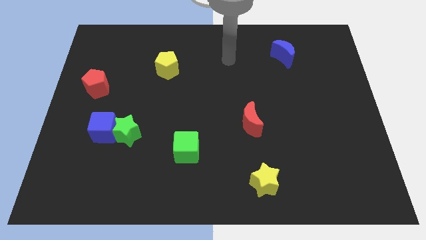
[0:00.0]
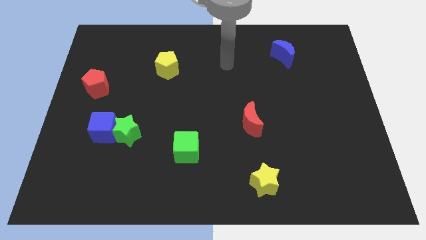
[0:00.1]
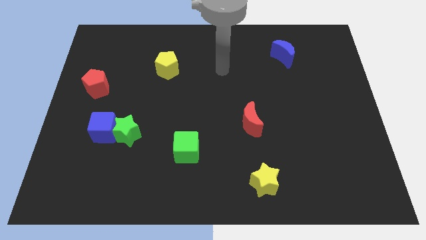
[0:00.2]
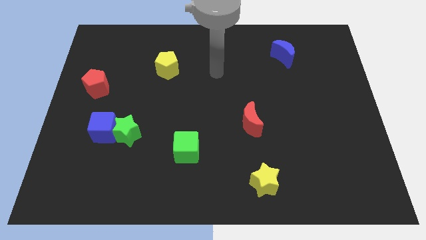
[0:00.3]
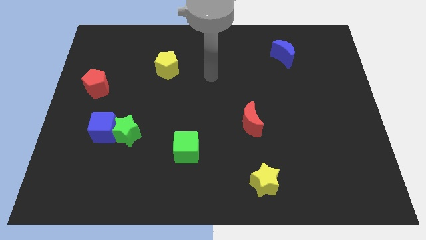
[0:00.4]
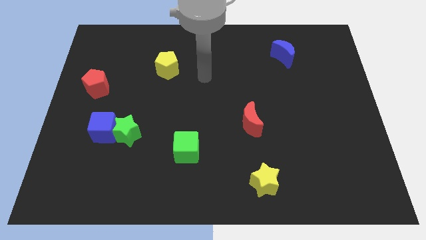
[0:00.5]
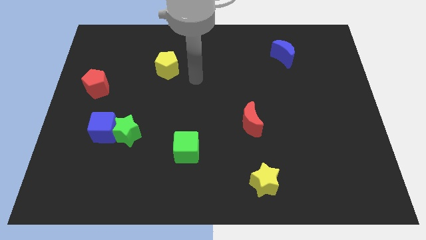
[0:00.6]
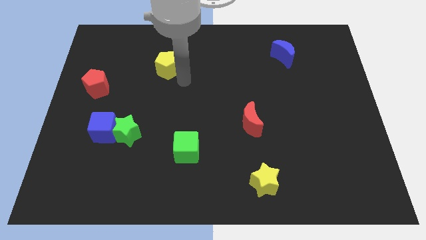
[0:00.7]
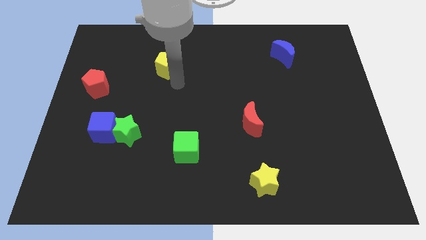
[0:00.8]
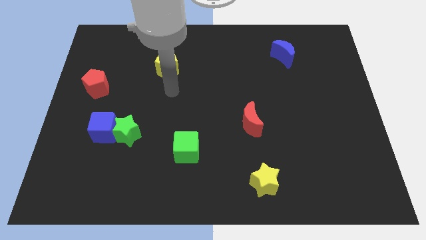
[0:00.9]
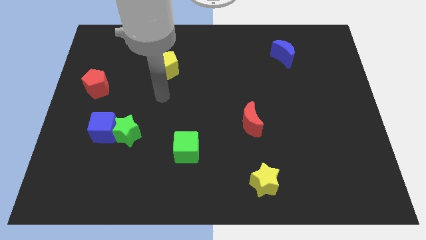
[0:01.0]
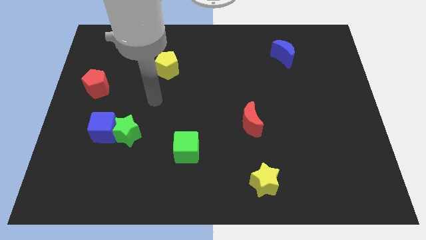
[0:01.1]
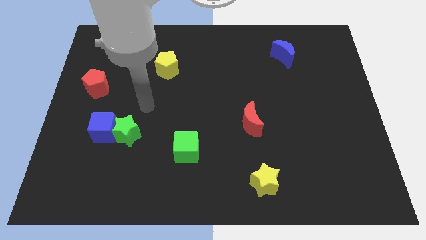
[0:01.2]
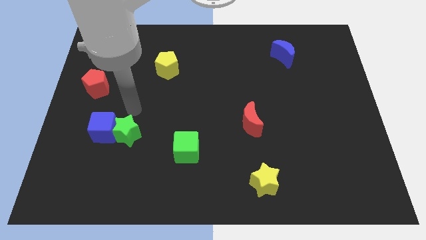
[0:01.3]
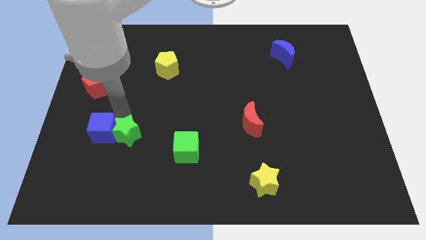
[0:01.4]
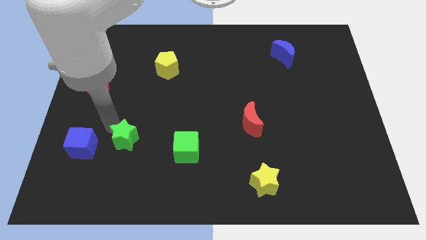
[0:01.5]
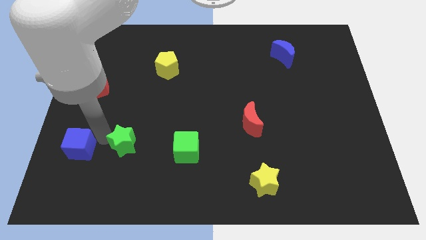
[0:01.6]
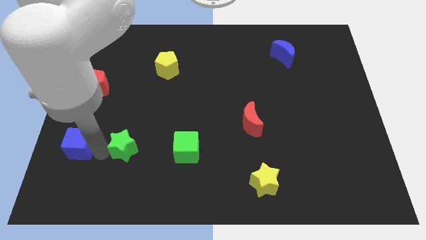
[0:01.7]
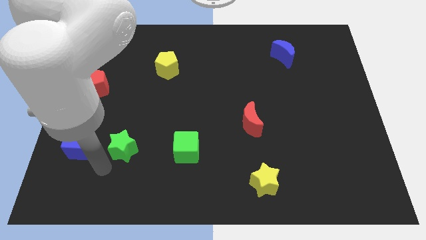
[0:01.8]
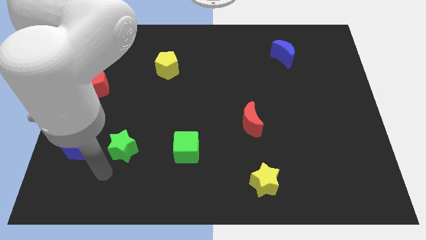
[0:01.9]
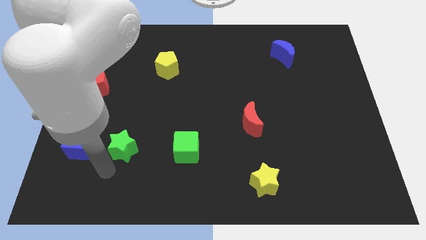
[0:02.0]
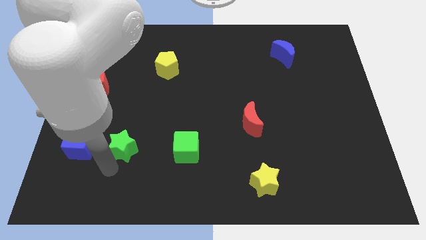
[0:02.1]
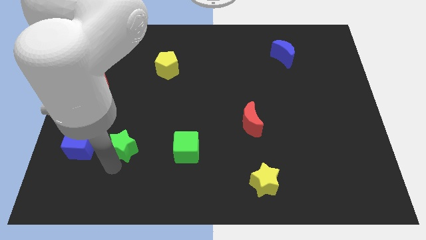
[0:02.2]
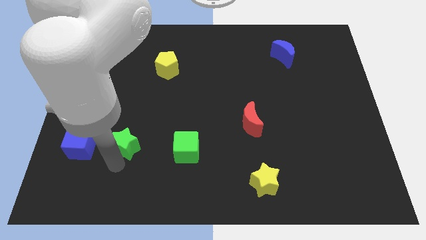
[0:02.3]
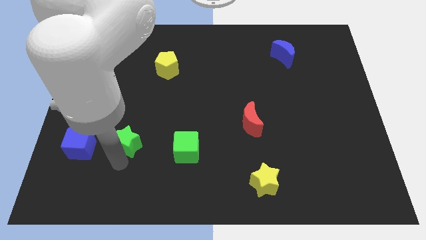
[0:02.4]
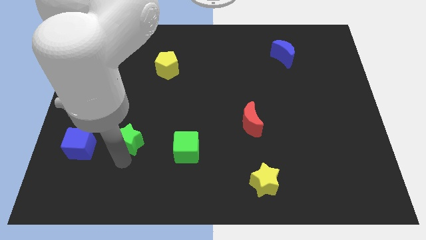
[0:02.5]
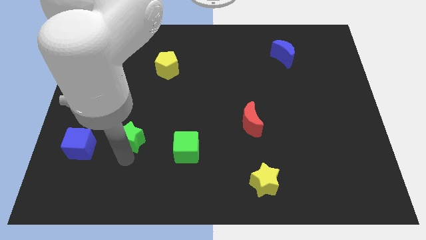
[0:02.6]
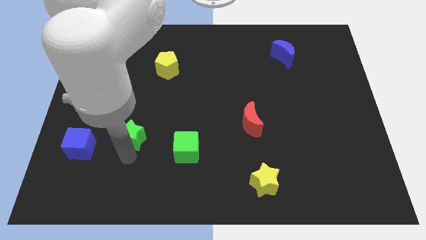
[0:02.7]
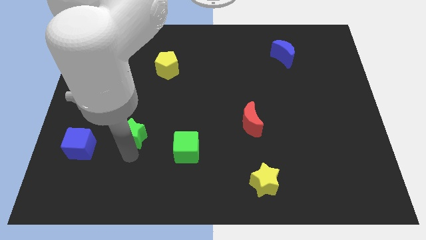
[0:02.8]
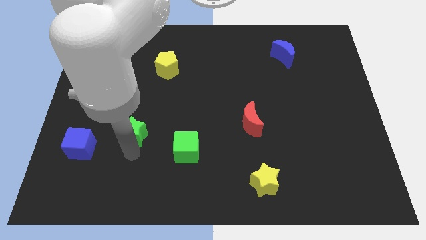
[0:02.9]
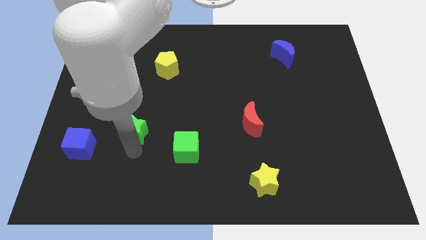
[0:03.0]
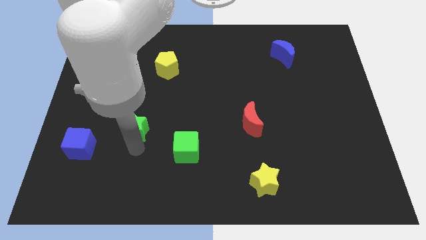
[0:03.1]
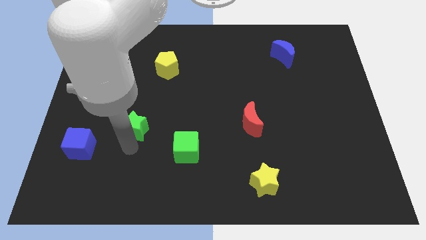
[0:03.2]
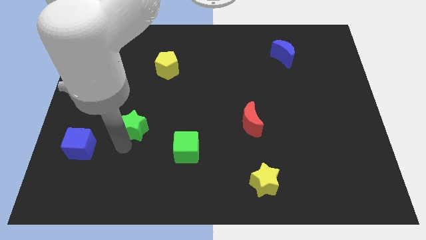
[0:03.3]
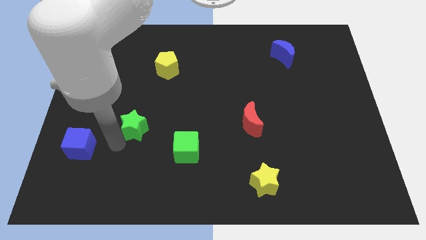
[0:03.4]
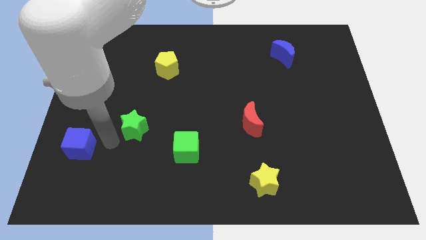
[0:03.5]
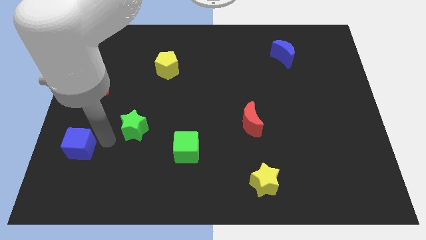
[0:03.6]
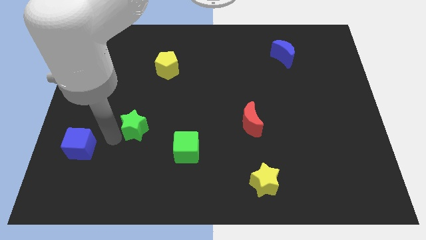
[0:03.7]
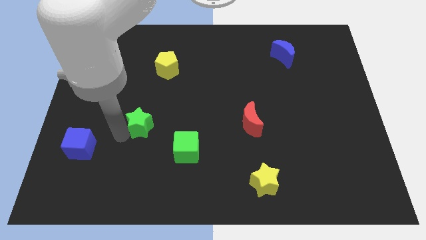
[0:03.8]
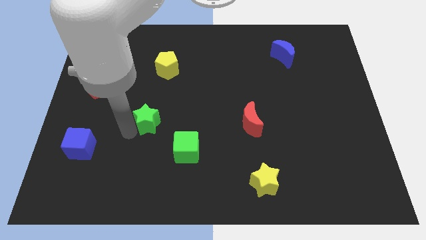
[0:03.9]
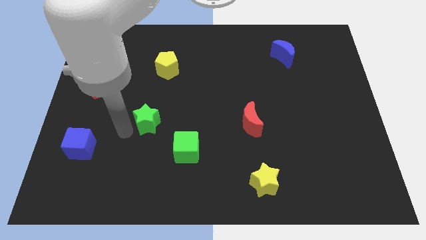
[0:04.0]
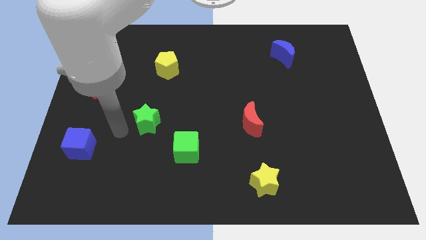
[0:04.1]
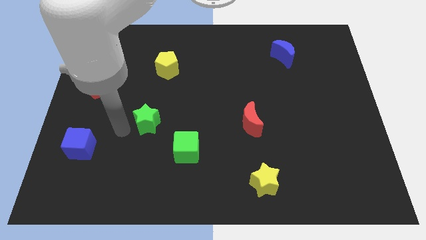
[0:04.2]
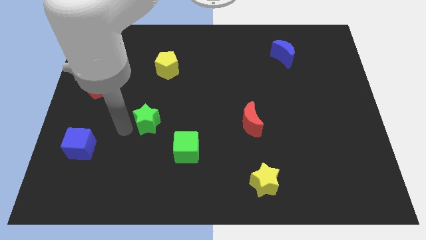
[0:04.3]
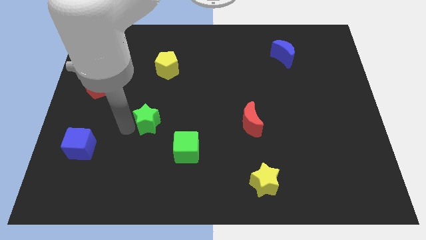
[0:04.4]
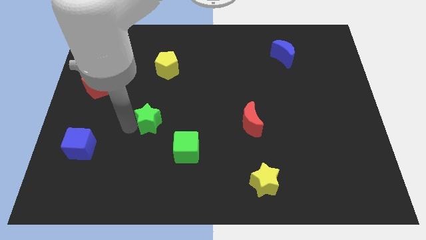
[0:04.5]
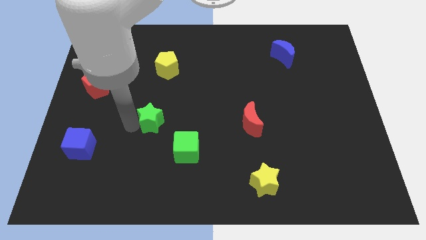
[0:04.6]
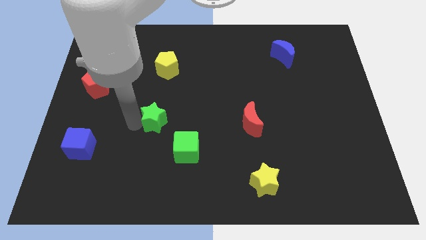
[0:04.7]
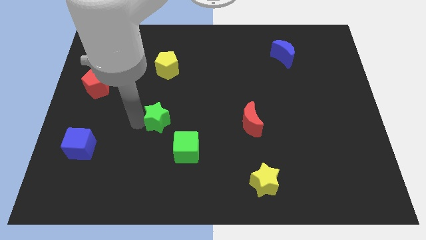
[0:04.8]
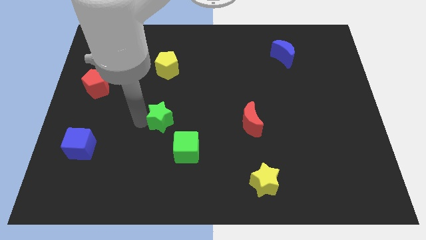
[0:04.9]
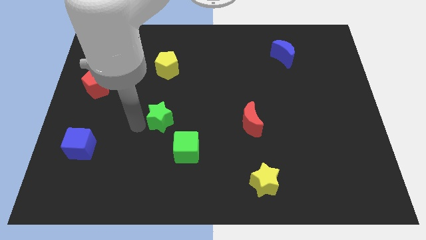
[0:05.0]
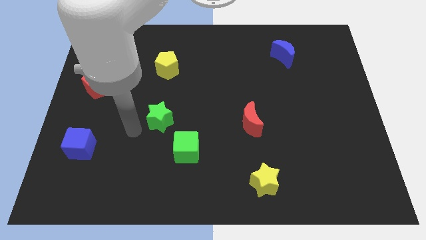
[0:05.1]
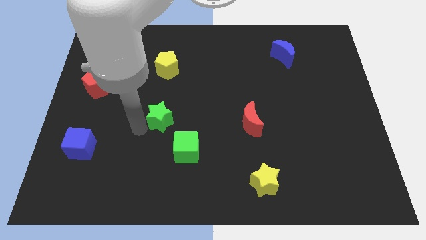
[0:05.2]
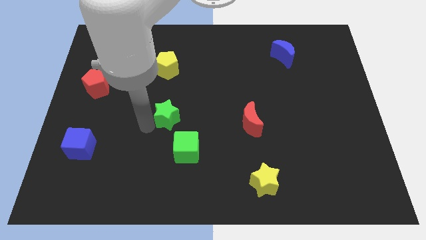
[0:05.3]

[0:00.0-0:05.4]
slide the green star to the center

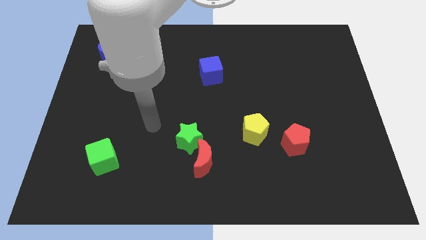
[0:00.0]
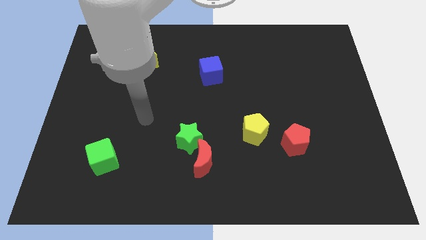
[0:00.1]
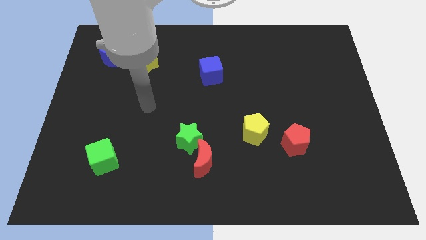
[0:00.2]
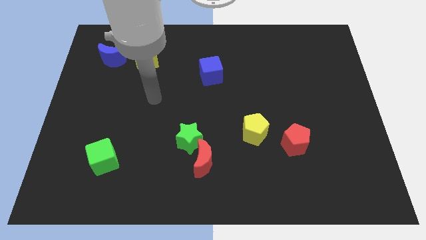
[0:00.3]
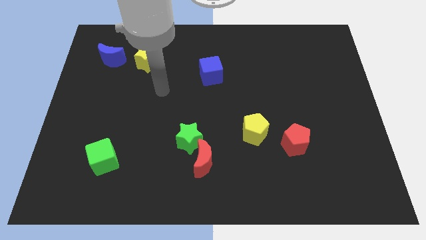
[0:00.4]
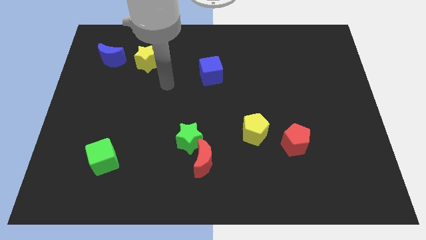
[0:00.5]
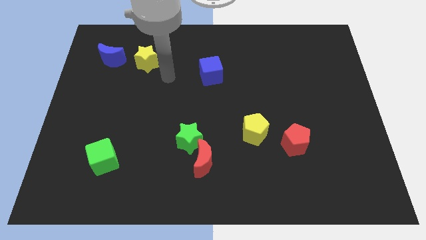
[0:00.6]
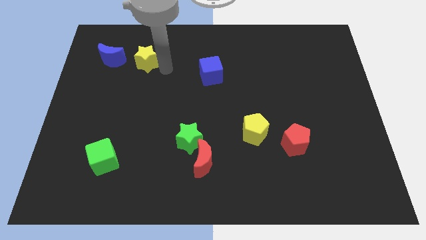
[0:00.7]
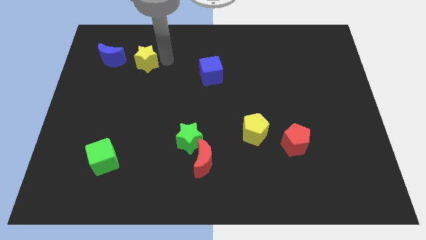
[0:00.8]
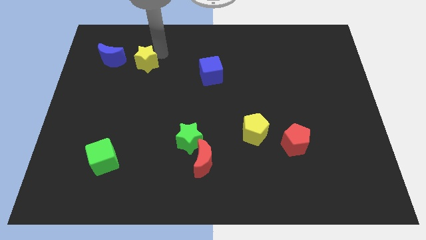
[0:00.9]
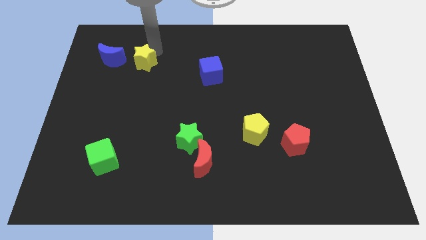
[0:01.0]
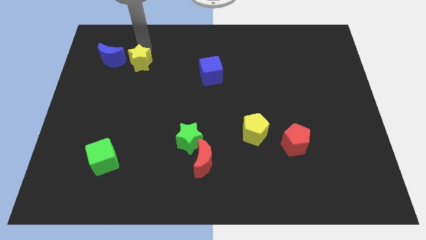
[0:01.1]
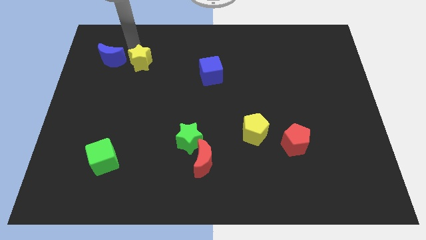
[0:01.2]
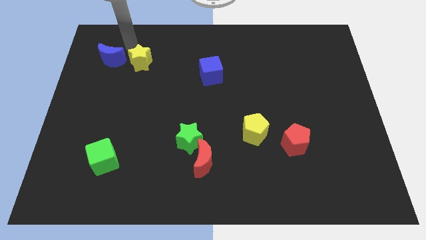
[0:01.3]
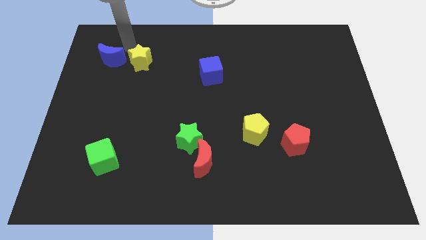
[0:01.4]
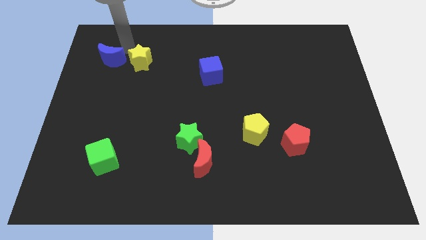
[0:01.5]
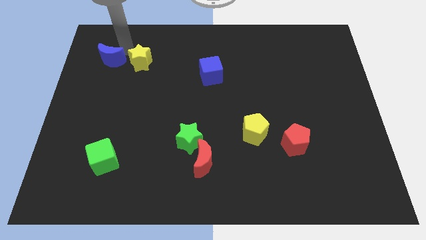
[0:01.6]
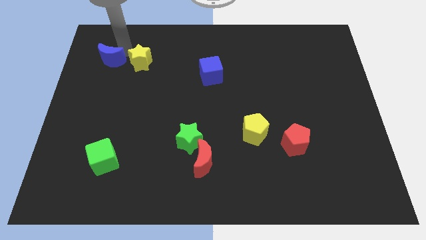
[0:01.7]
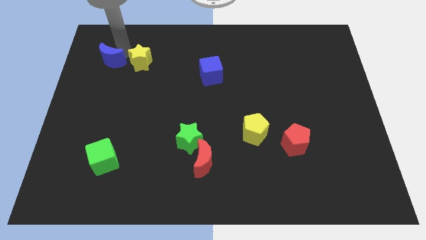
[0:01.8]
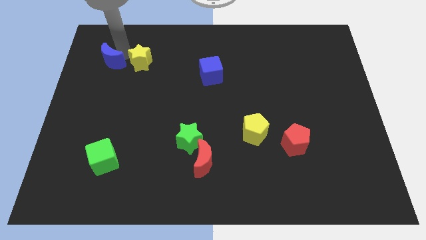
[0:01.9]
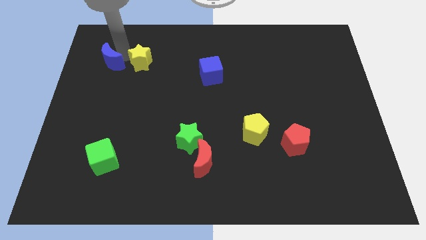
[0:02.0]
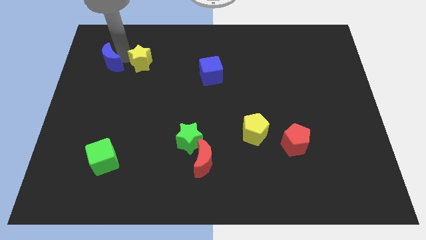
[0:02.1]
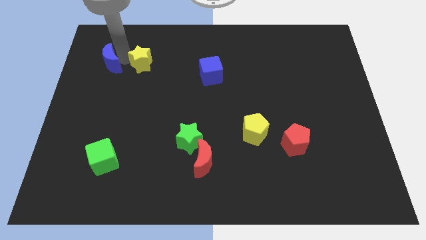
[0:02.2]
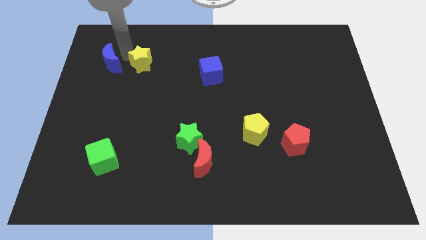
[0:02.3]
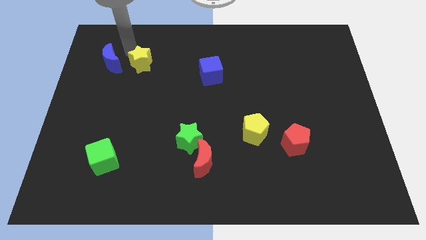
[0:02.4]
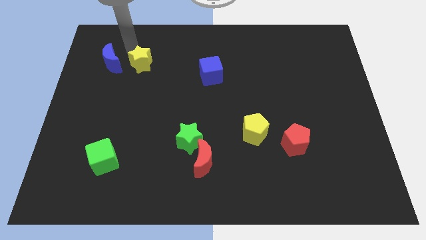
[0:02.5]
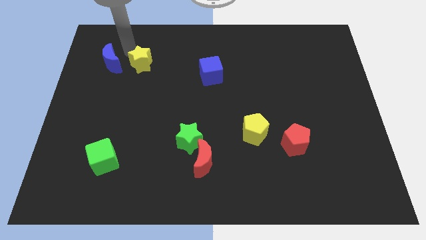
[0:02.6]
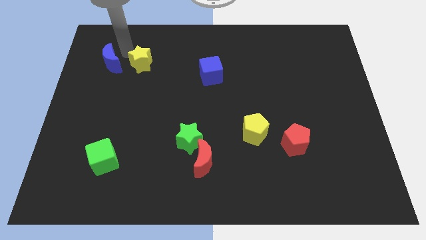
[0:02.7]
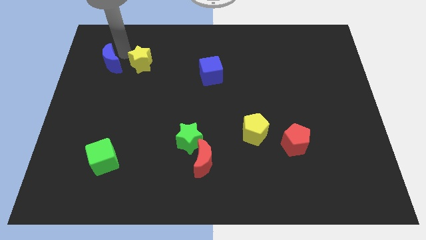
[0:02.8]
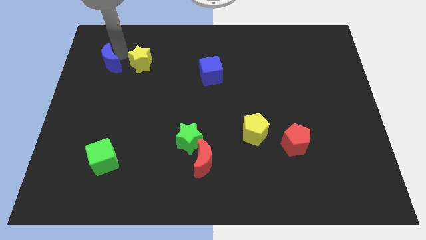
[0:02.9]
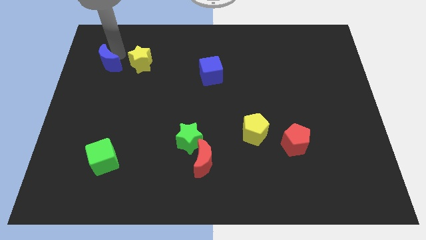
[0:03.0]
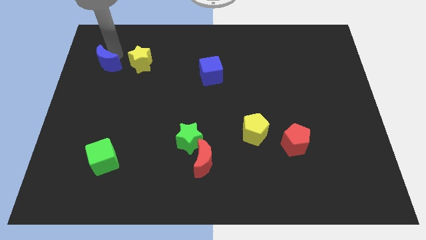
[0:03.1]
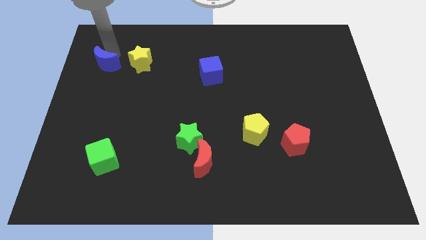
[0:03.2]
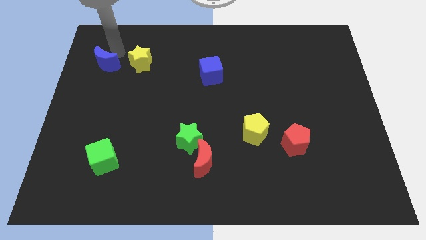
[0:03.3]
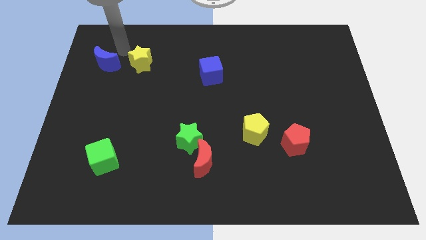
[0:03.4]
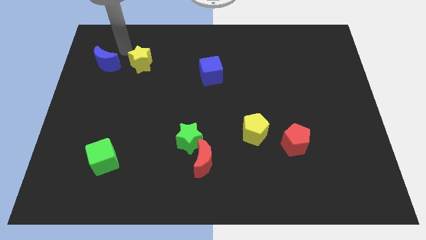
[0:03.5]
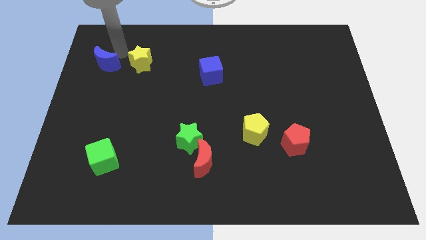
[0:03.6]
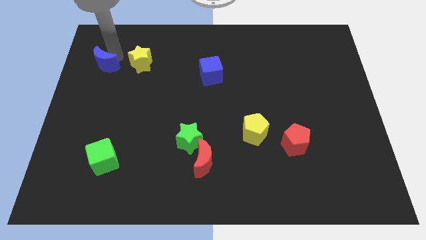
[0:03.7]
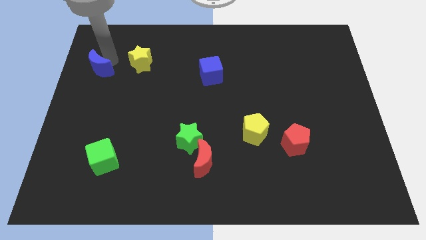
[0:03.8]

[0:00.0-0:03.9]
slide the blue moon to the left side
